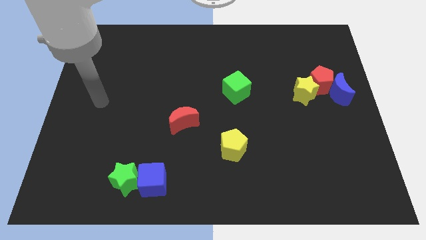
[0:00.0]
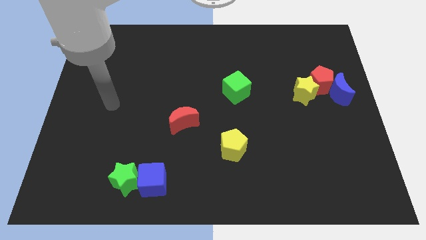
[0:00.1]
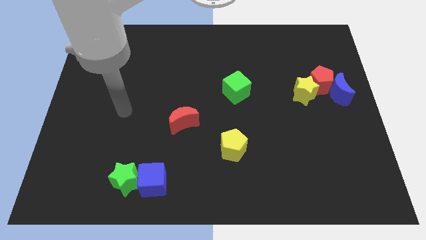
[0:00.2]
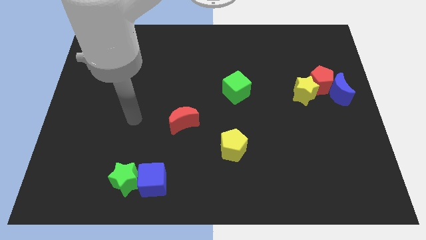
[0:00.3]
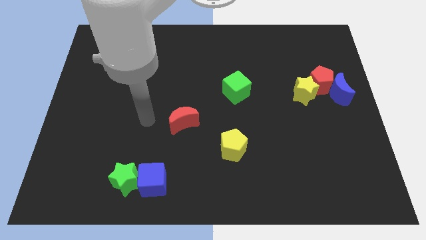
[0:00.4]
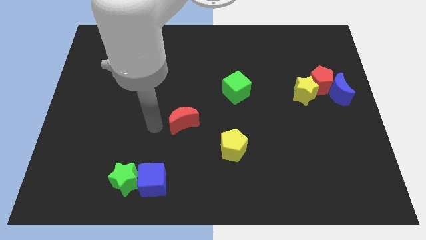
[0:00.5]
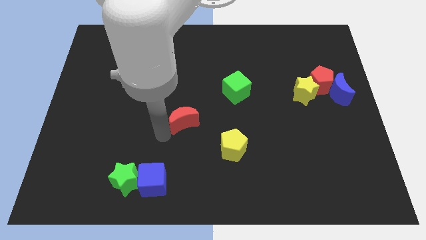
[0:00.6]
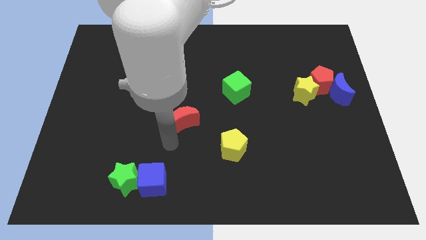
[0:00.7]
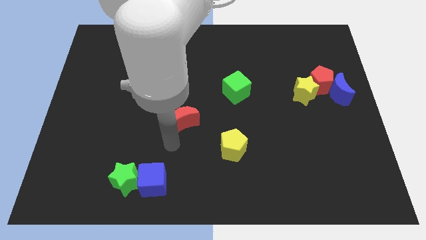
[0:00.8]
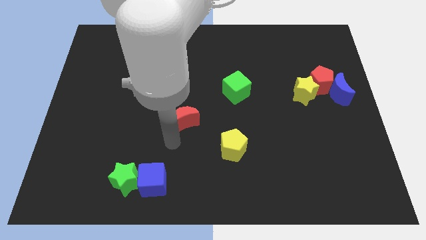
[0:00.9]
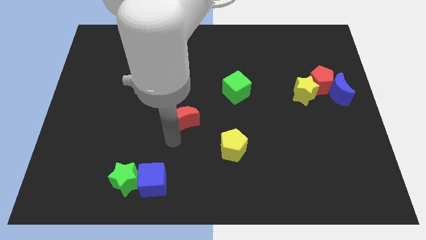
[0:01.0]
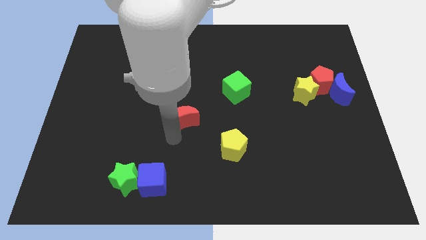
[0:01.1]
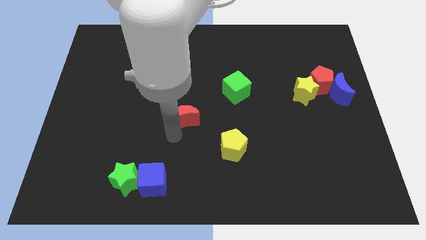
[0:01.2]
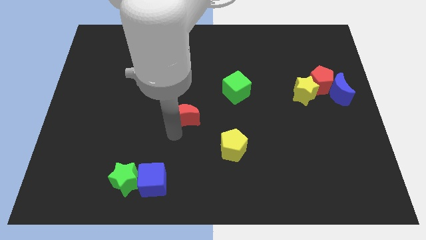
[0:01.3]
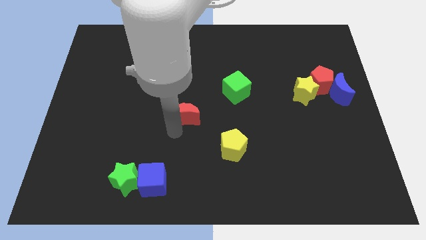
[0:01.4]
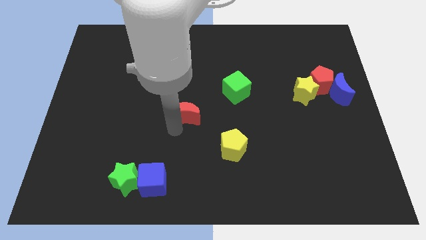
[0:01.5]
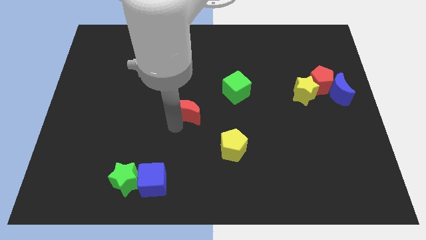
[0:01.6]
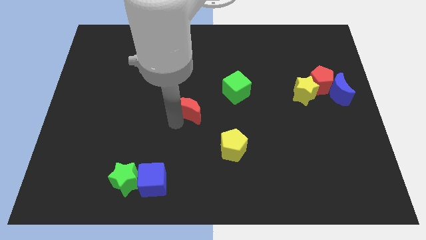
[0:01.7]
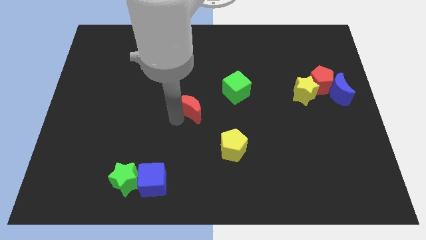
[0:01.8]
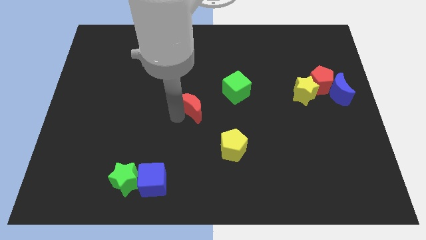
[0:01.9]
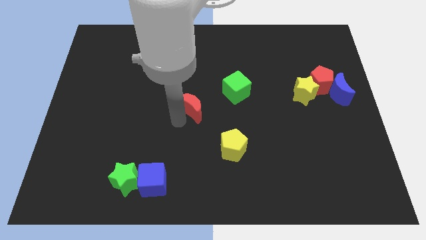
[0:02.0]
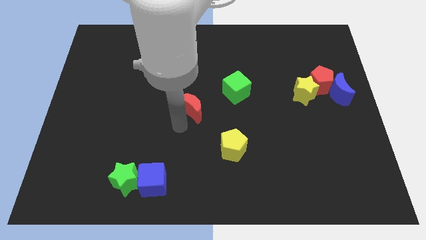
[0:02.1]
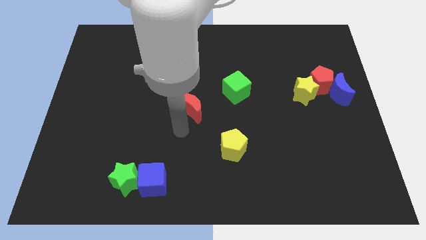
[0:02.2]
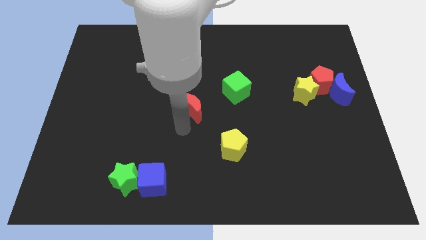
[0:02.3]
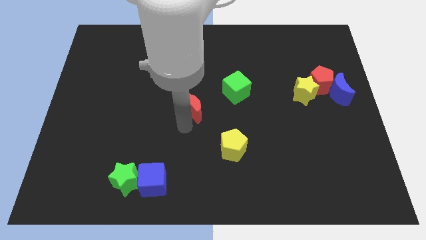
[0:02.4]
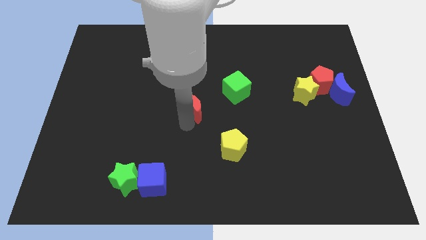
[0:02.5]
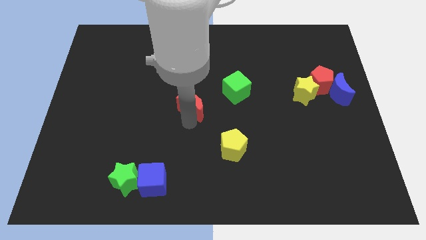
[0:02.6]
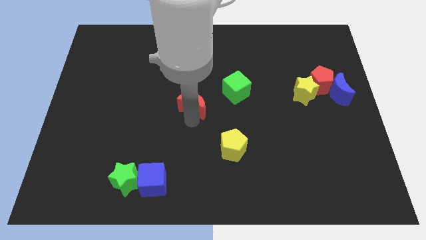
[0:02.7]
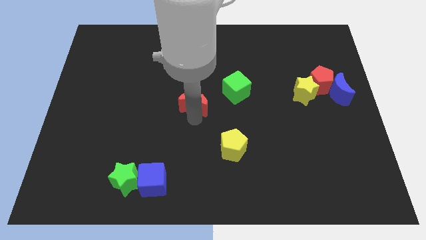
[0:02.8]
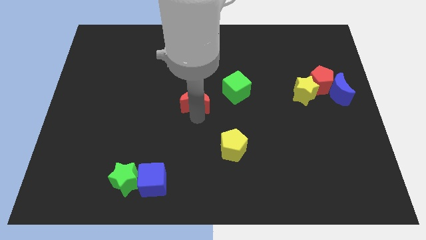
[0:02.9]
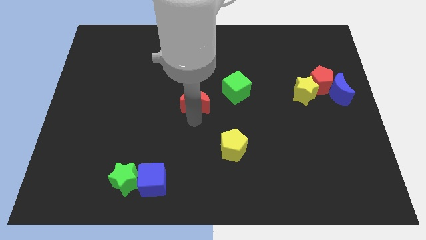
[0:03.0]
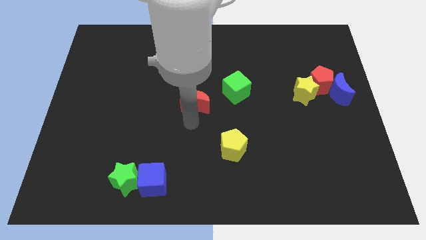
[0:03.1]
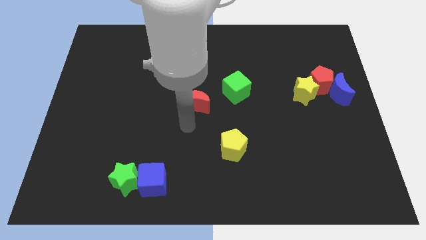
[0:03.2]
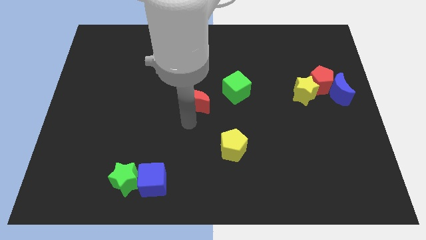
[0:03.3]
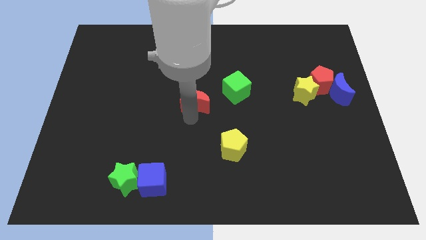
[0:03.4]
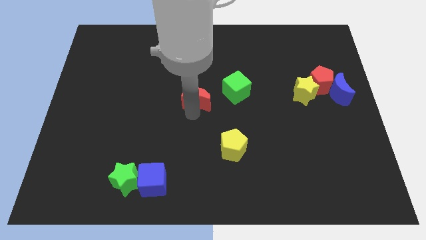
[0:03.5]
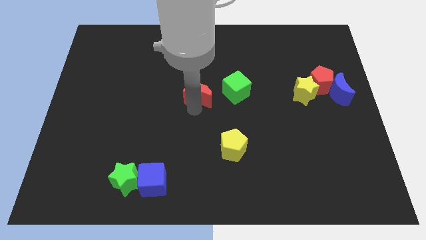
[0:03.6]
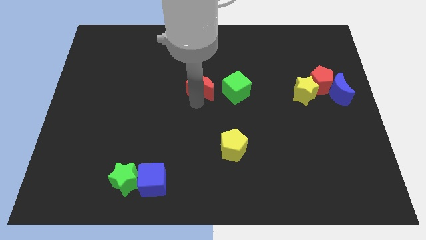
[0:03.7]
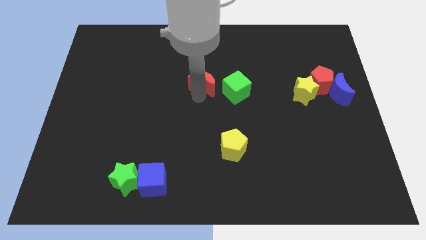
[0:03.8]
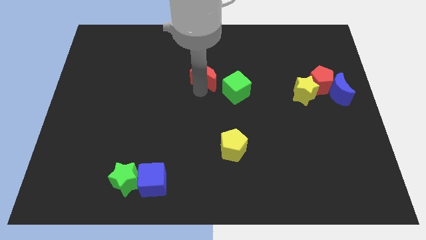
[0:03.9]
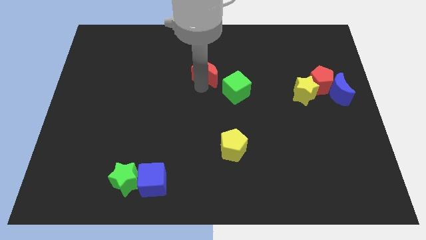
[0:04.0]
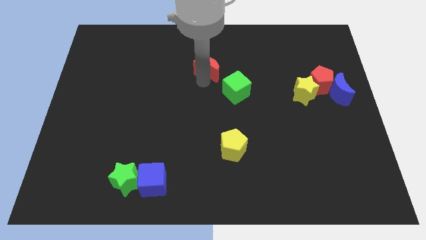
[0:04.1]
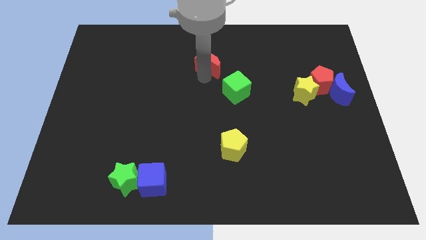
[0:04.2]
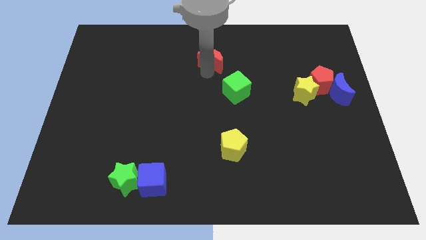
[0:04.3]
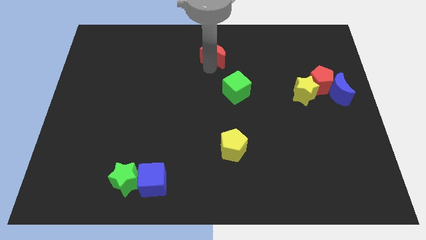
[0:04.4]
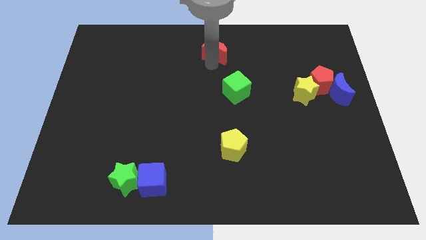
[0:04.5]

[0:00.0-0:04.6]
put the red moon to the top

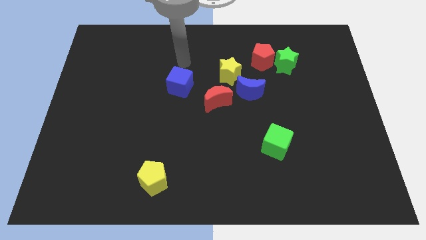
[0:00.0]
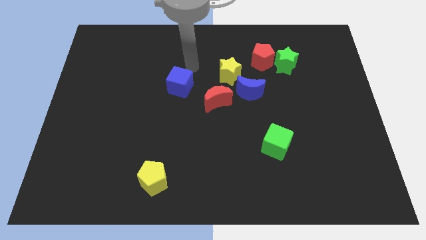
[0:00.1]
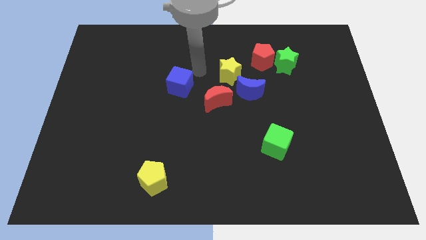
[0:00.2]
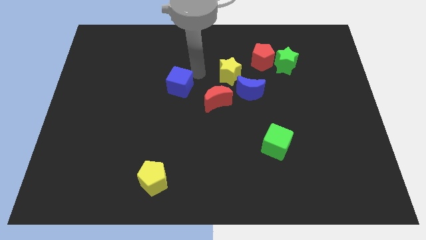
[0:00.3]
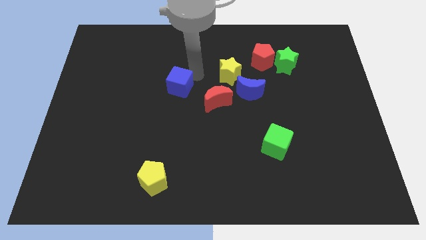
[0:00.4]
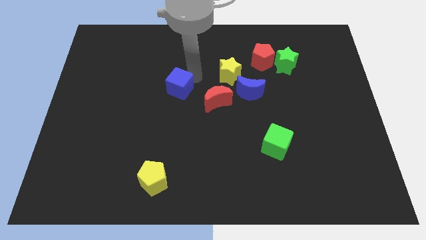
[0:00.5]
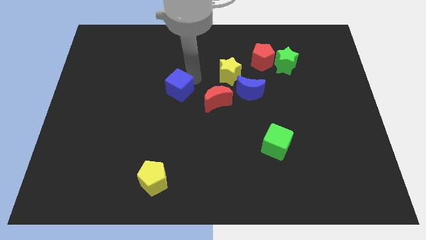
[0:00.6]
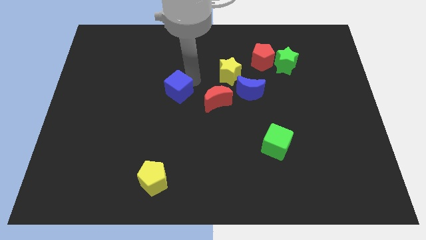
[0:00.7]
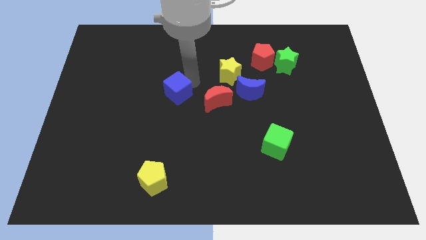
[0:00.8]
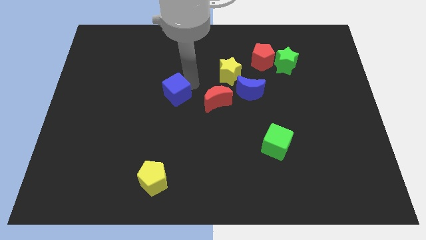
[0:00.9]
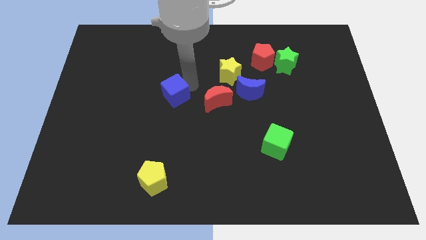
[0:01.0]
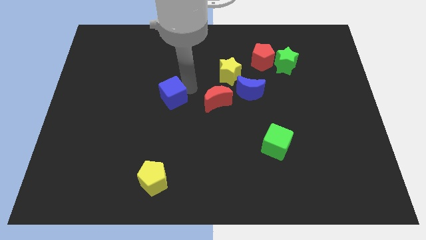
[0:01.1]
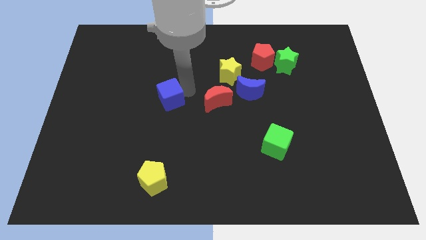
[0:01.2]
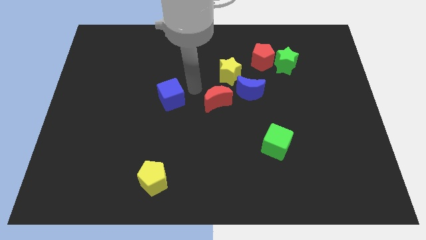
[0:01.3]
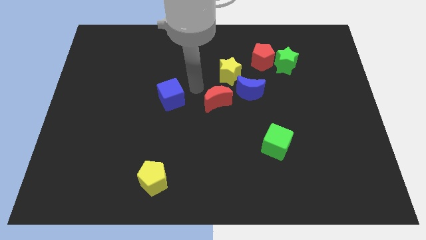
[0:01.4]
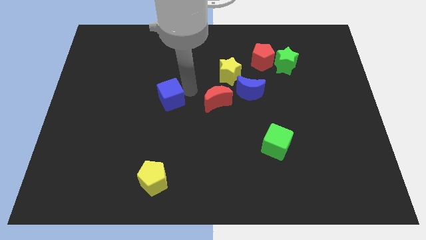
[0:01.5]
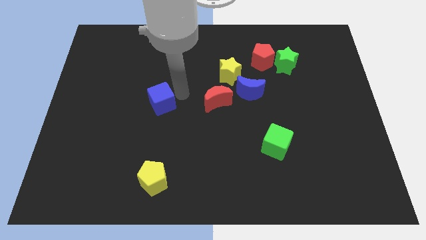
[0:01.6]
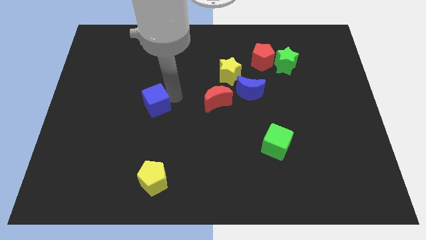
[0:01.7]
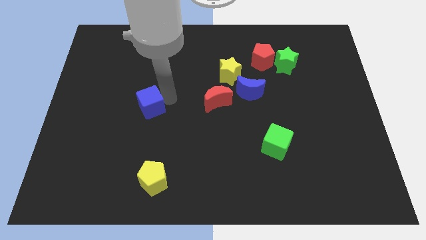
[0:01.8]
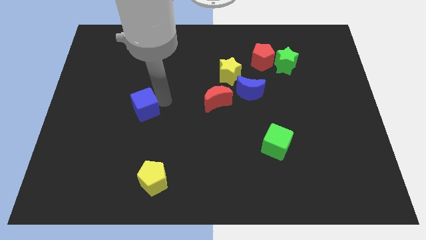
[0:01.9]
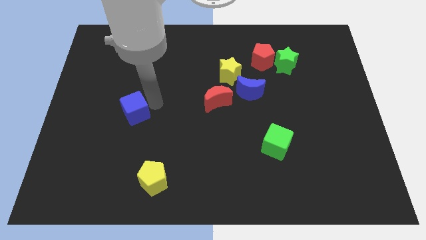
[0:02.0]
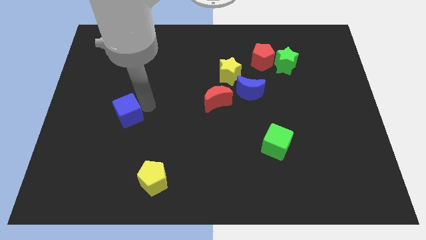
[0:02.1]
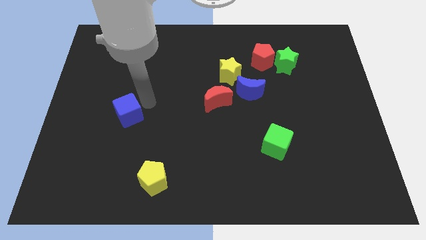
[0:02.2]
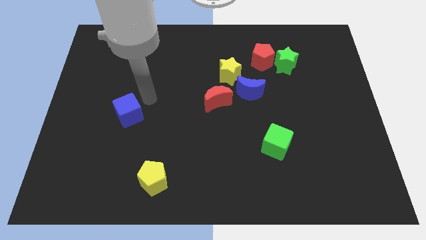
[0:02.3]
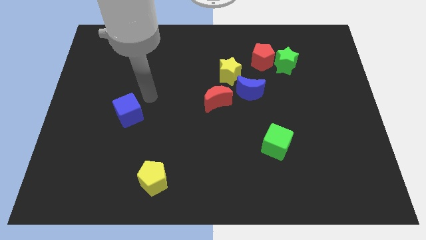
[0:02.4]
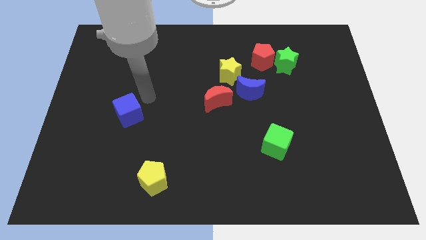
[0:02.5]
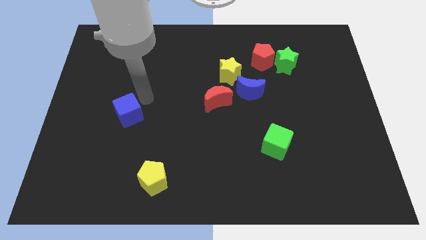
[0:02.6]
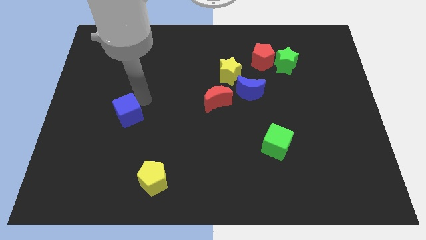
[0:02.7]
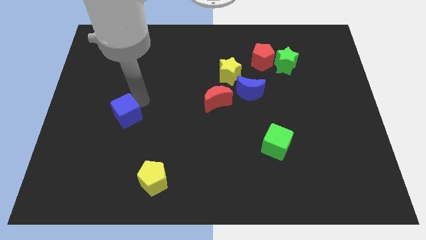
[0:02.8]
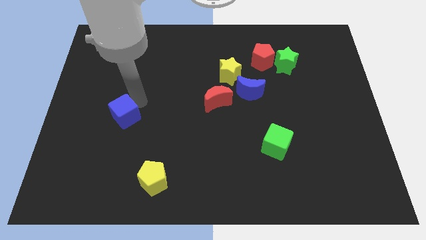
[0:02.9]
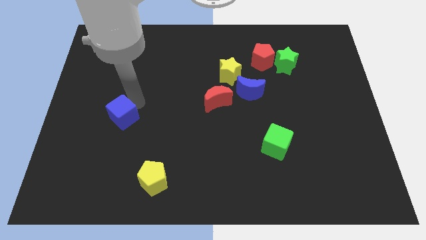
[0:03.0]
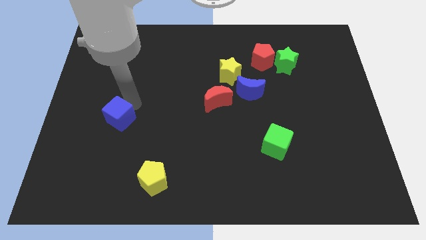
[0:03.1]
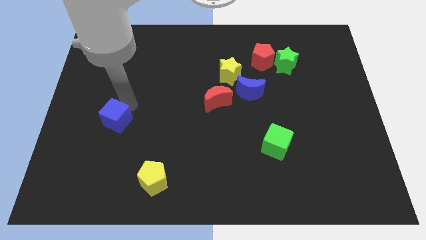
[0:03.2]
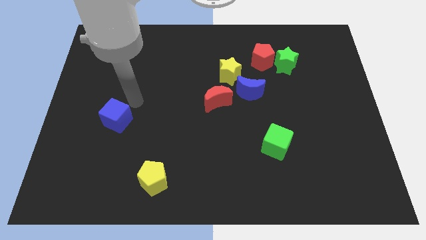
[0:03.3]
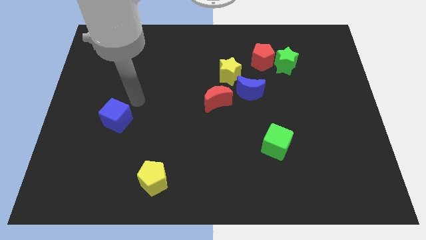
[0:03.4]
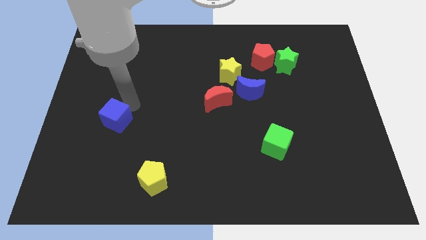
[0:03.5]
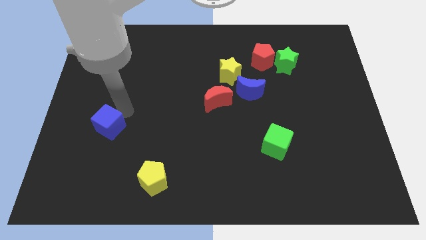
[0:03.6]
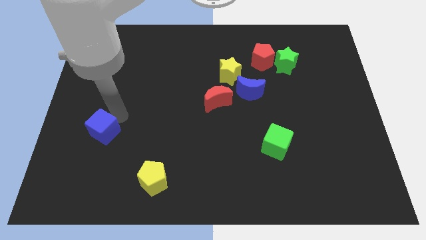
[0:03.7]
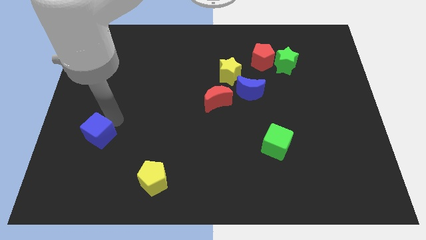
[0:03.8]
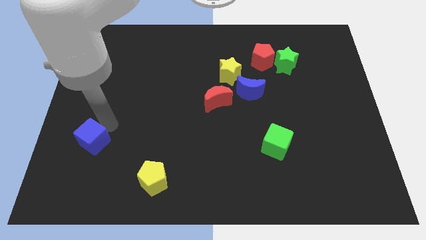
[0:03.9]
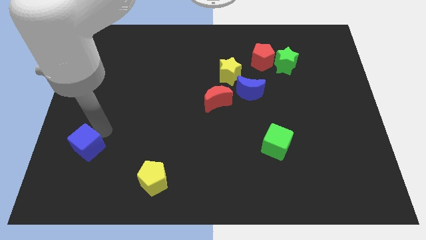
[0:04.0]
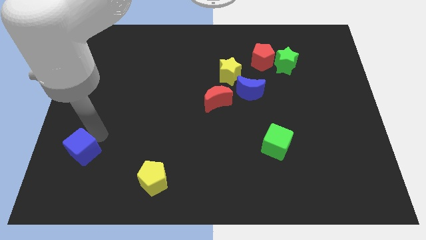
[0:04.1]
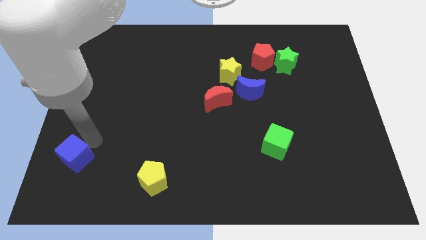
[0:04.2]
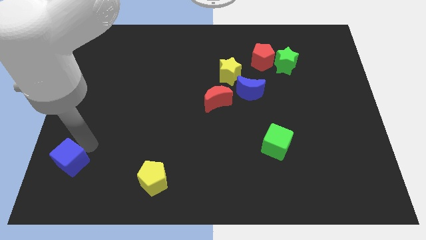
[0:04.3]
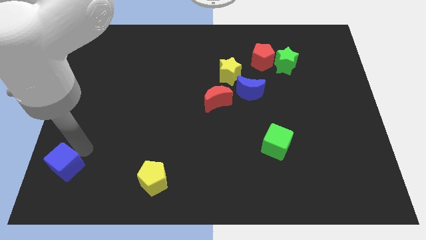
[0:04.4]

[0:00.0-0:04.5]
push the blue cube to the bottom left of the board
